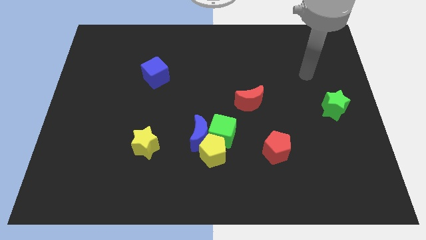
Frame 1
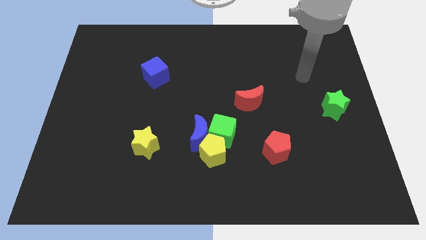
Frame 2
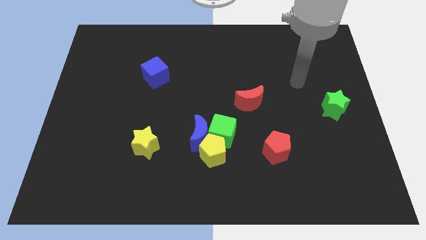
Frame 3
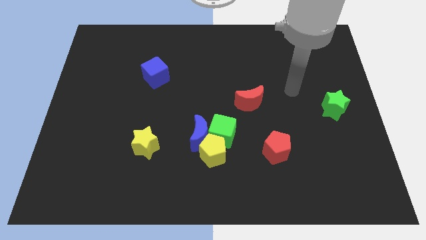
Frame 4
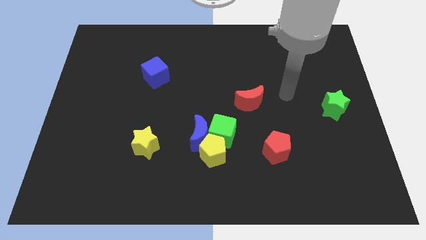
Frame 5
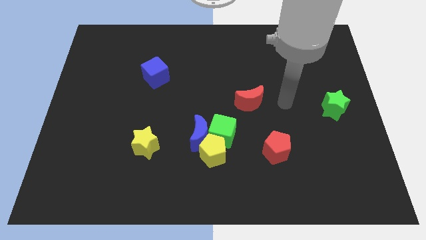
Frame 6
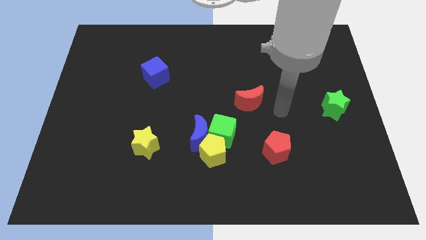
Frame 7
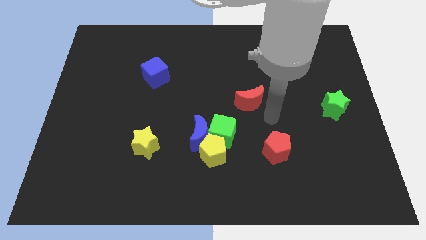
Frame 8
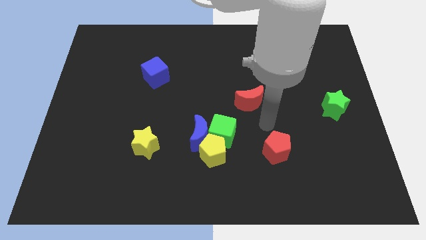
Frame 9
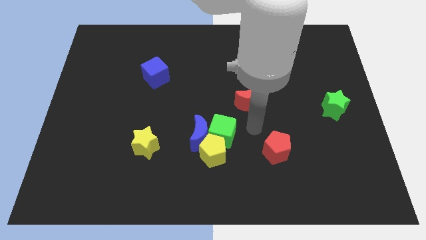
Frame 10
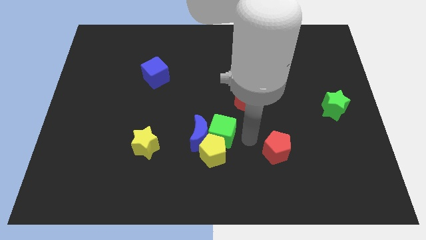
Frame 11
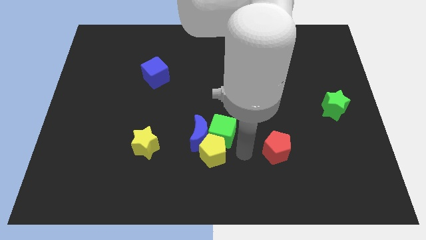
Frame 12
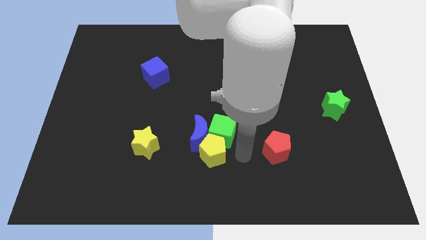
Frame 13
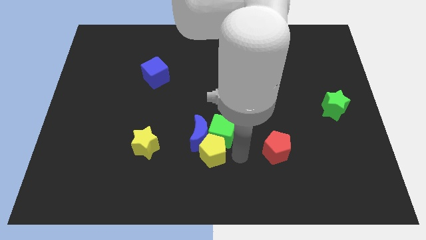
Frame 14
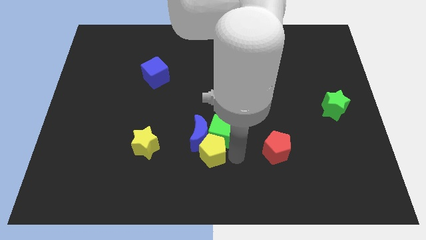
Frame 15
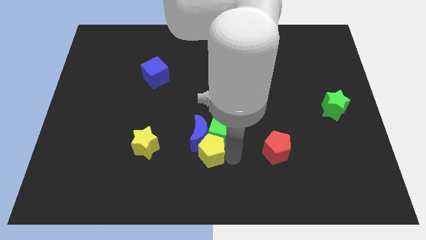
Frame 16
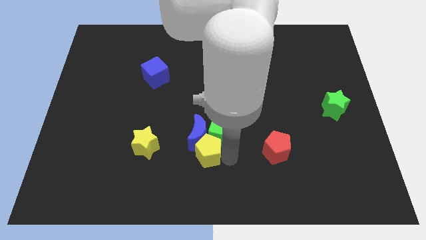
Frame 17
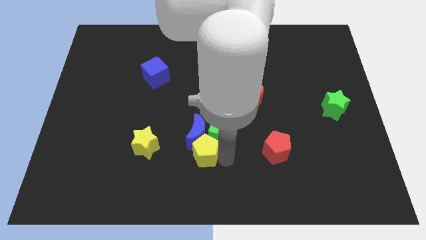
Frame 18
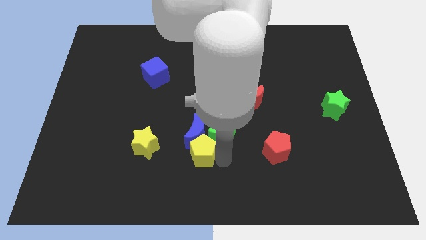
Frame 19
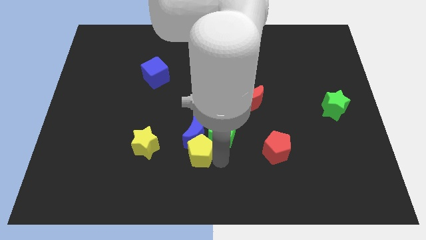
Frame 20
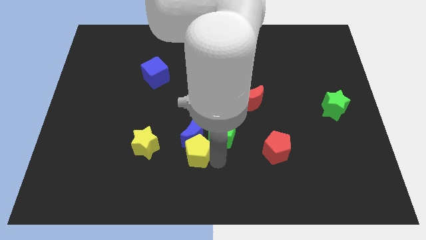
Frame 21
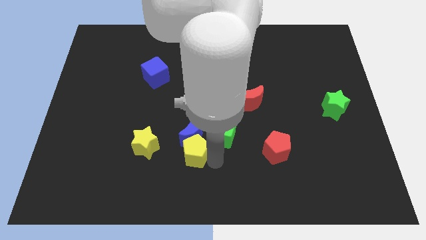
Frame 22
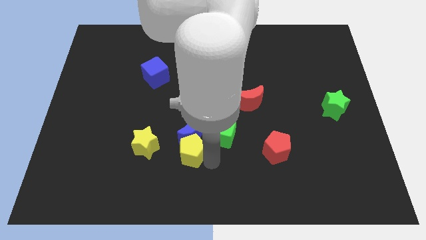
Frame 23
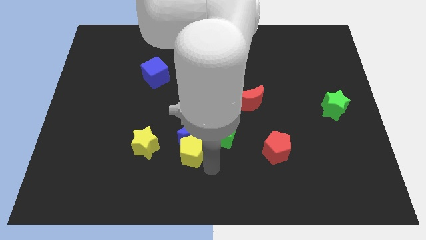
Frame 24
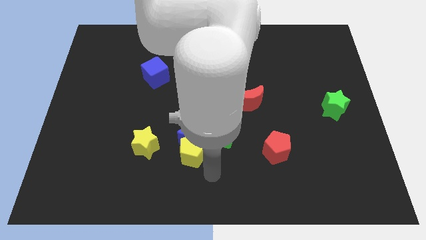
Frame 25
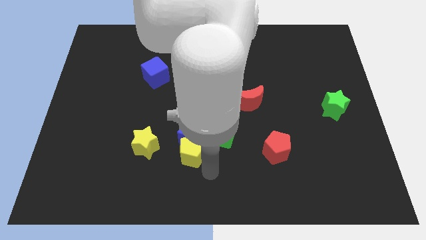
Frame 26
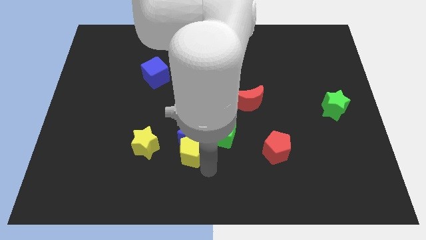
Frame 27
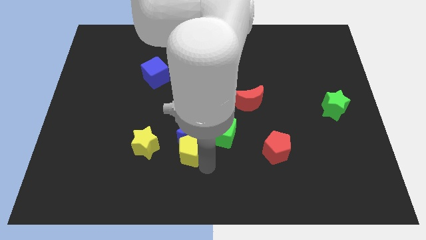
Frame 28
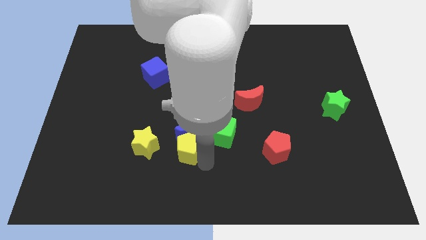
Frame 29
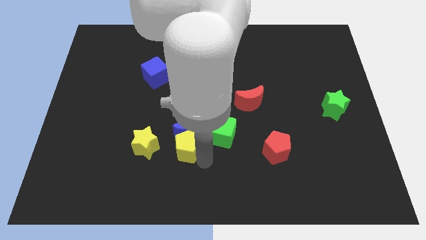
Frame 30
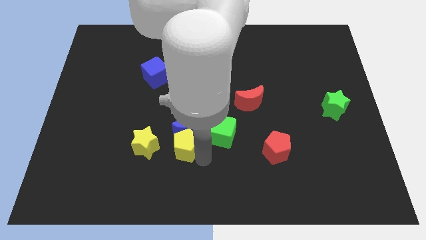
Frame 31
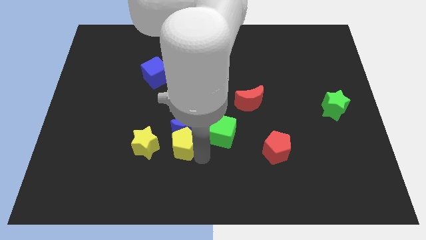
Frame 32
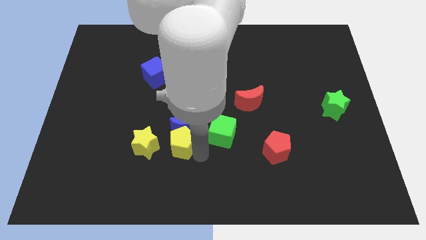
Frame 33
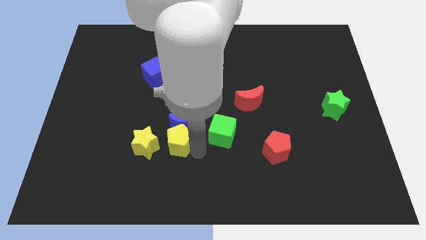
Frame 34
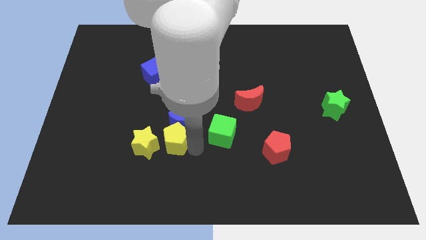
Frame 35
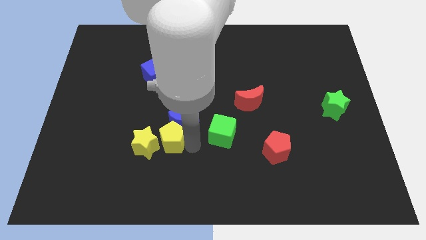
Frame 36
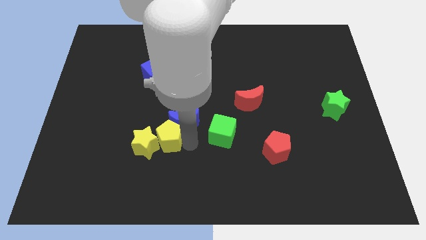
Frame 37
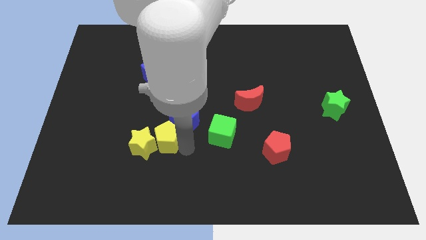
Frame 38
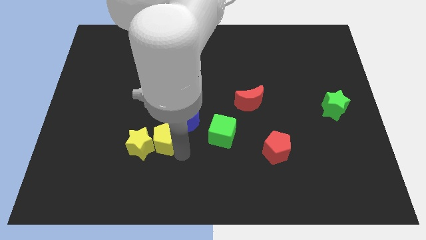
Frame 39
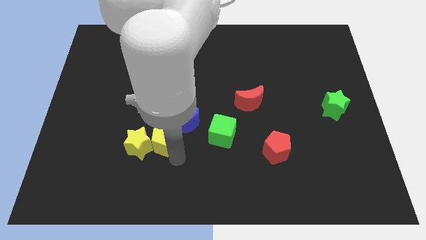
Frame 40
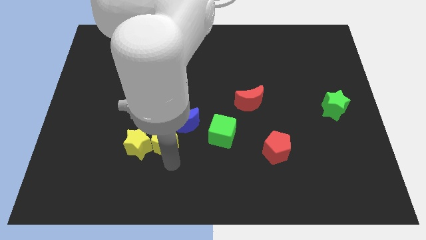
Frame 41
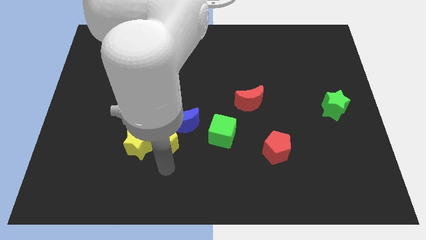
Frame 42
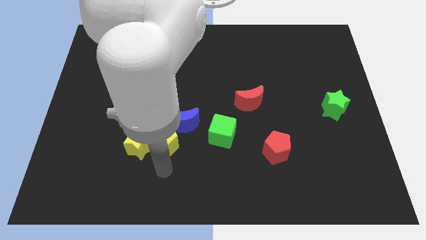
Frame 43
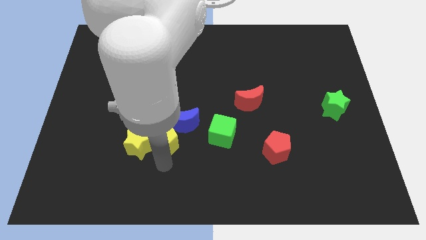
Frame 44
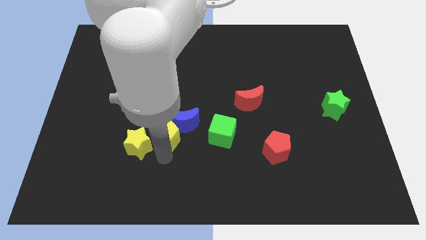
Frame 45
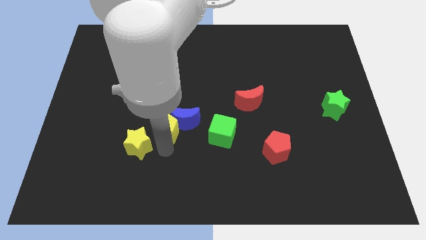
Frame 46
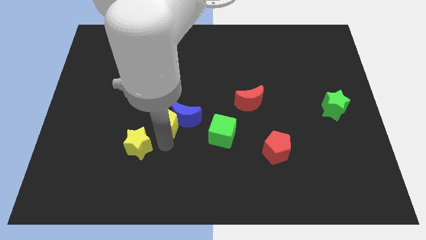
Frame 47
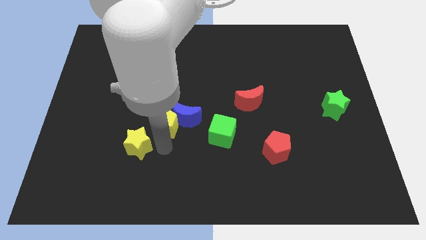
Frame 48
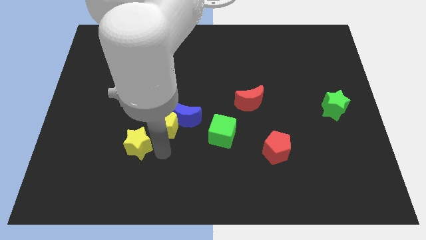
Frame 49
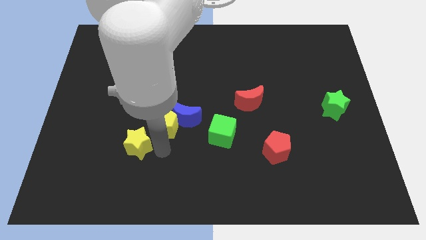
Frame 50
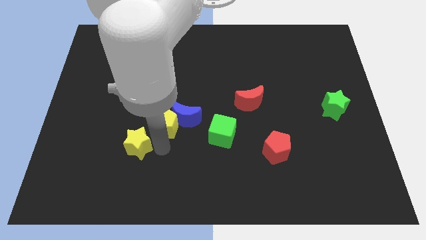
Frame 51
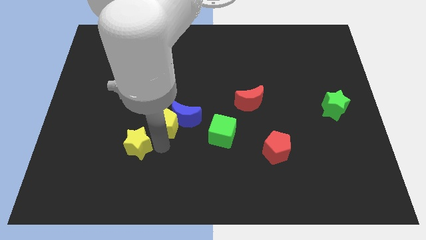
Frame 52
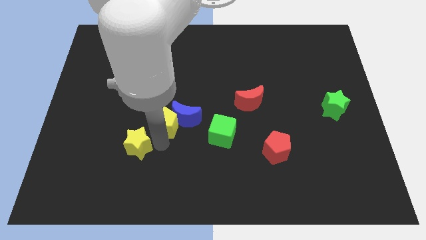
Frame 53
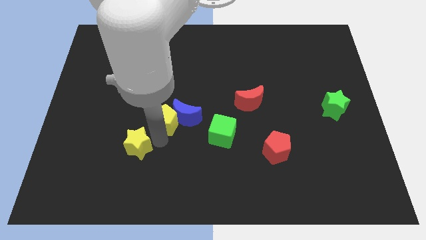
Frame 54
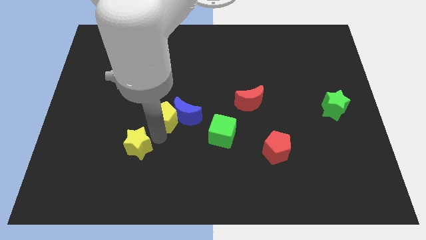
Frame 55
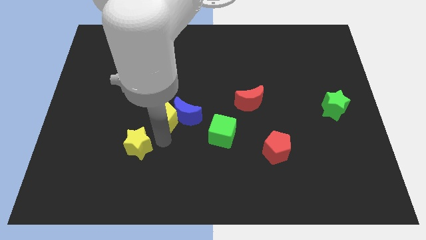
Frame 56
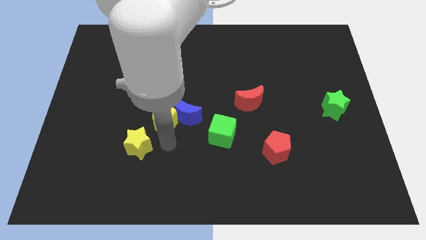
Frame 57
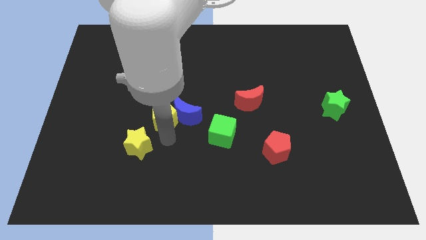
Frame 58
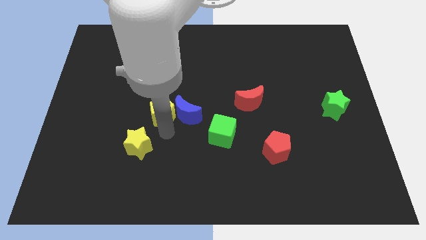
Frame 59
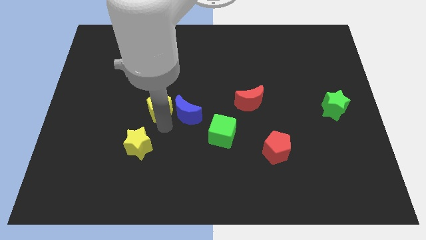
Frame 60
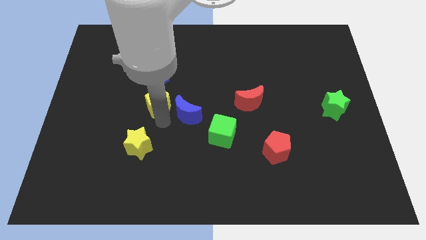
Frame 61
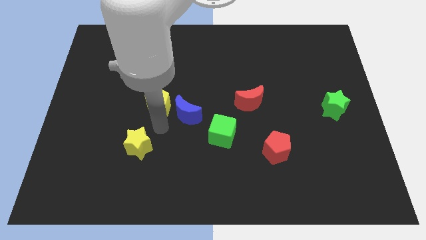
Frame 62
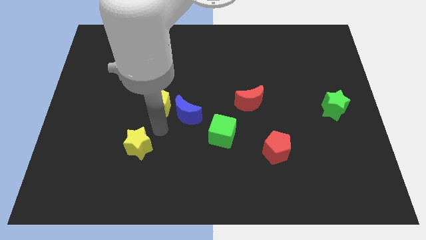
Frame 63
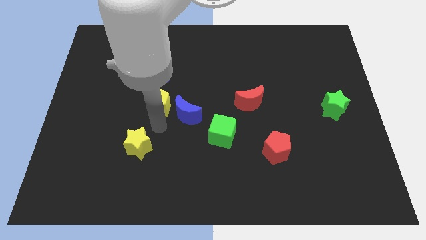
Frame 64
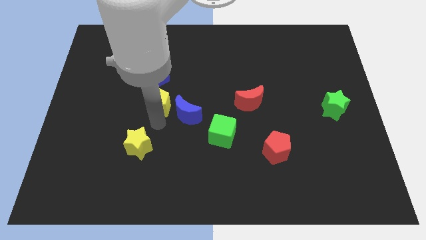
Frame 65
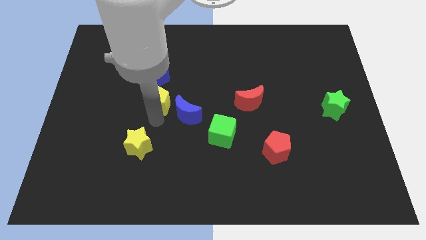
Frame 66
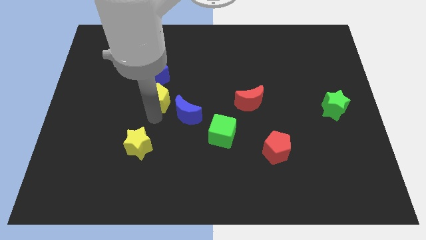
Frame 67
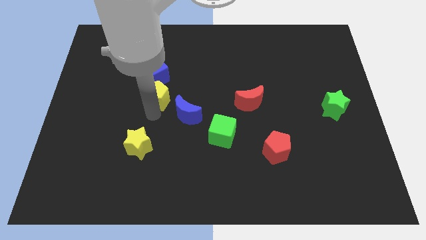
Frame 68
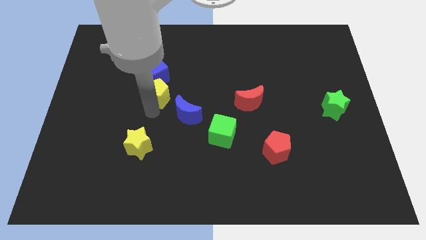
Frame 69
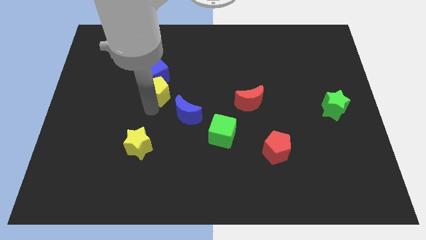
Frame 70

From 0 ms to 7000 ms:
put the yellow pentagon towards the blue cube

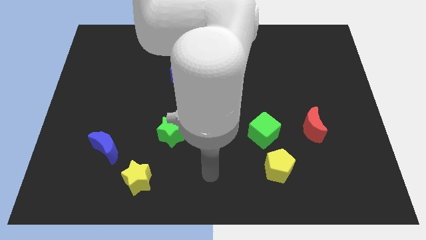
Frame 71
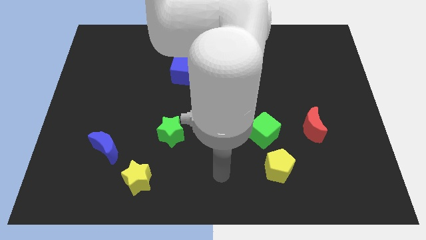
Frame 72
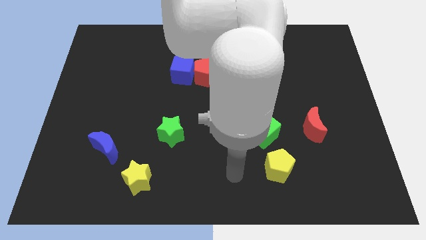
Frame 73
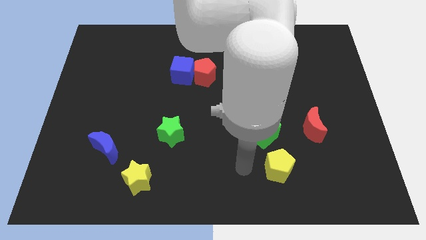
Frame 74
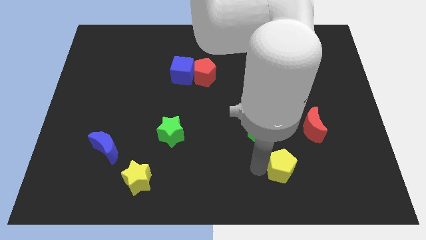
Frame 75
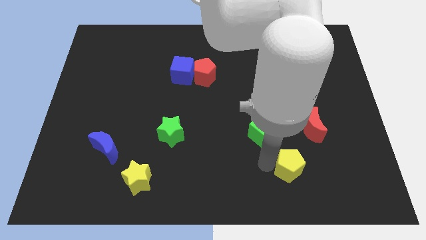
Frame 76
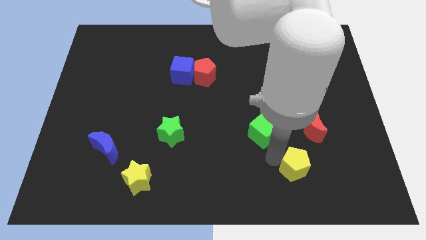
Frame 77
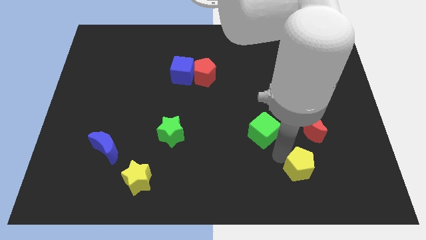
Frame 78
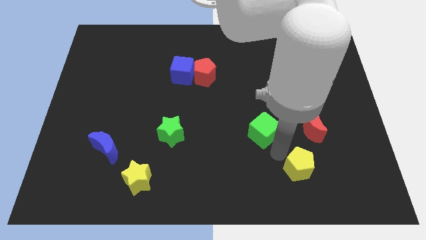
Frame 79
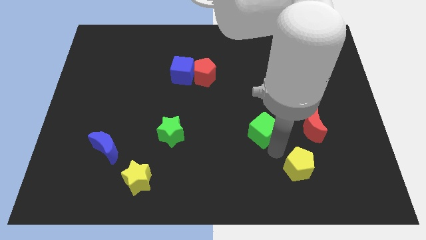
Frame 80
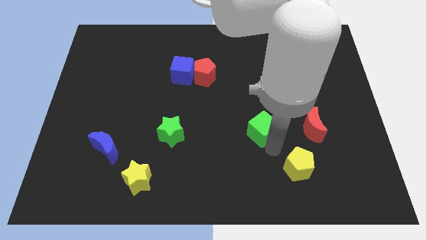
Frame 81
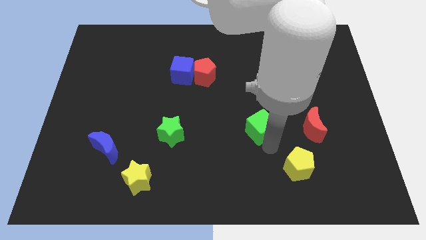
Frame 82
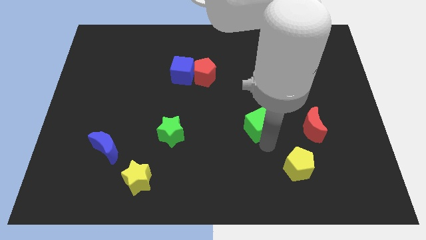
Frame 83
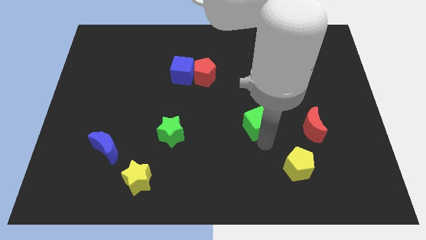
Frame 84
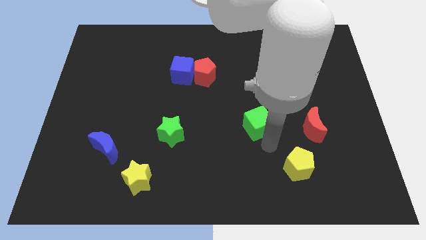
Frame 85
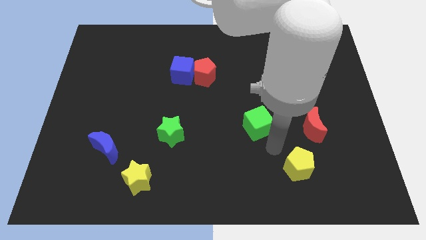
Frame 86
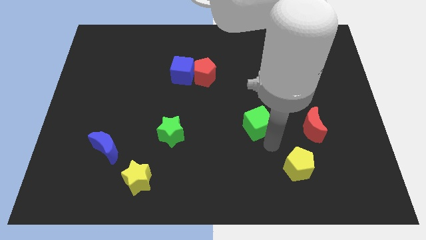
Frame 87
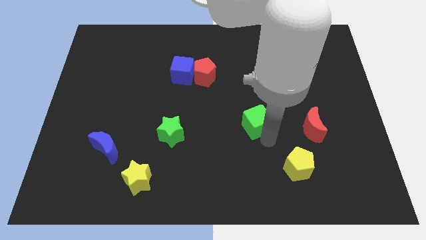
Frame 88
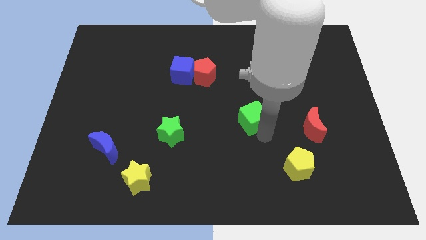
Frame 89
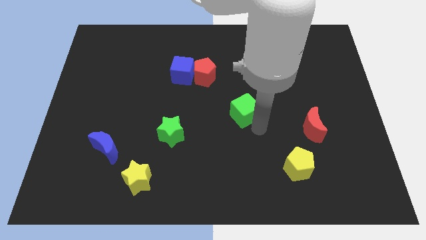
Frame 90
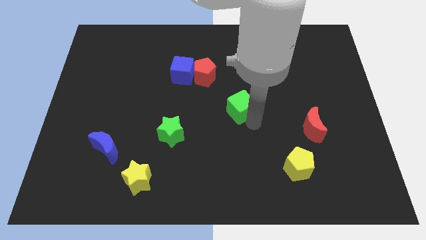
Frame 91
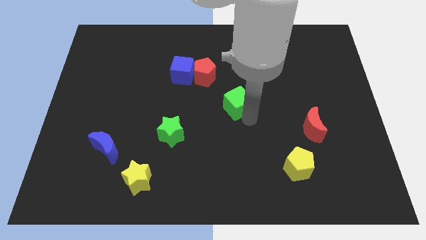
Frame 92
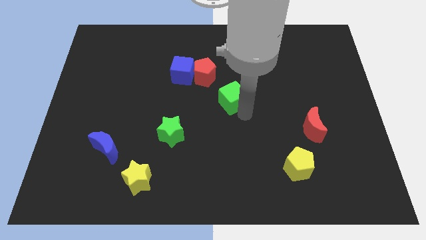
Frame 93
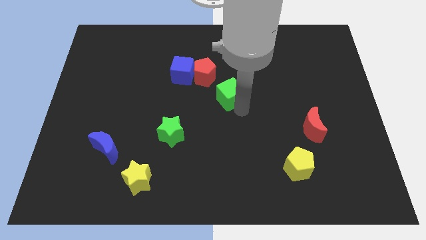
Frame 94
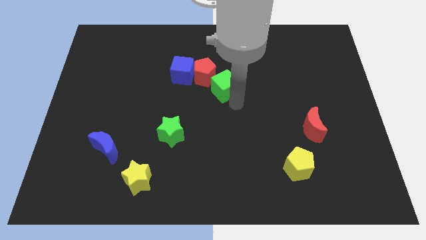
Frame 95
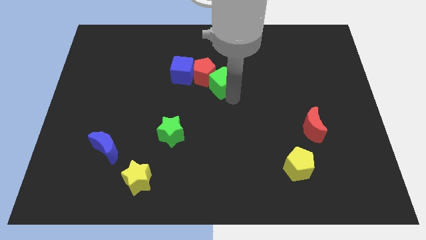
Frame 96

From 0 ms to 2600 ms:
push the green cube to the red pentagon
